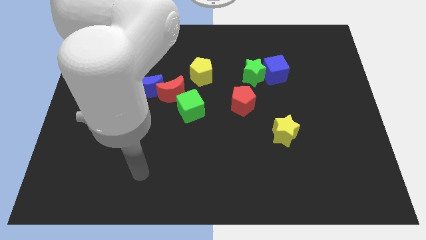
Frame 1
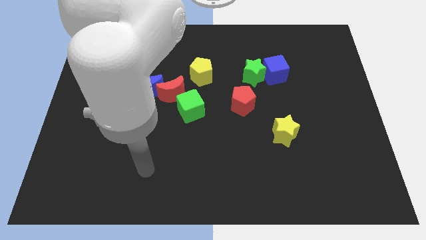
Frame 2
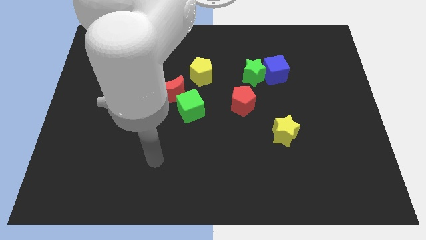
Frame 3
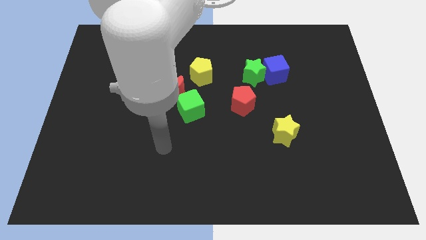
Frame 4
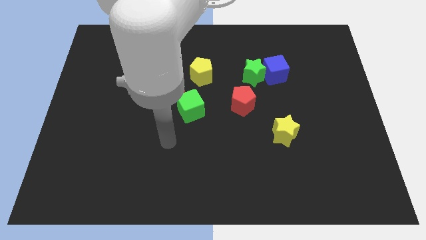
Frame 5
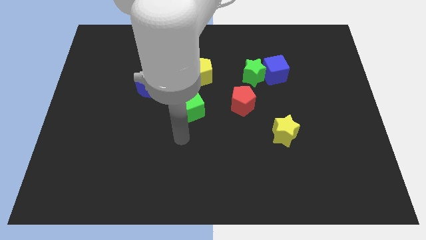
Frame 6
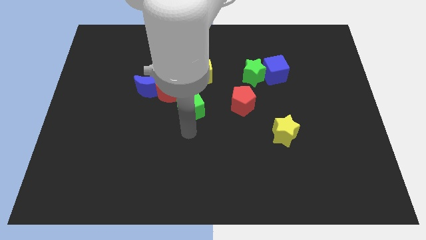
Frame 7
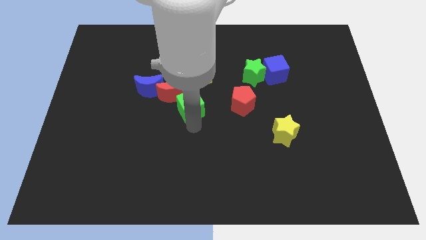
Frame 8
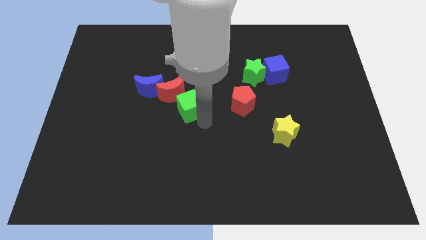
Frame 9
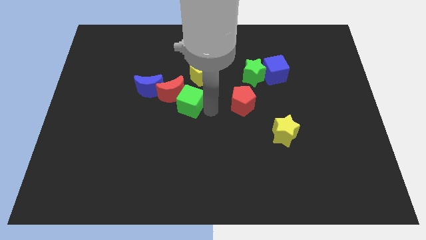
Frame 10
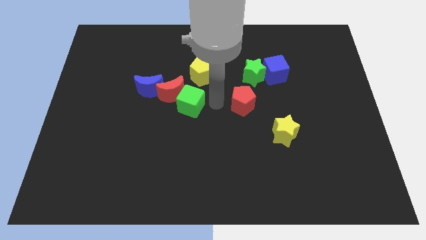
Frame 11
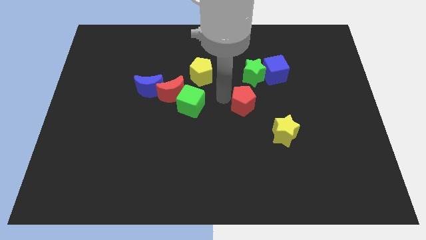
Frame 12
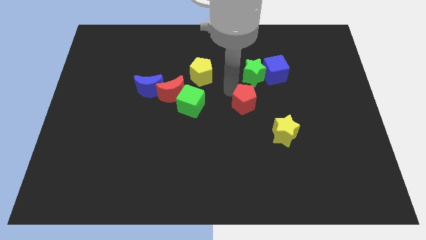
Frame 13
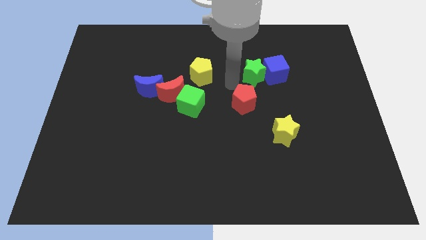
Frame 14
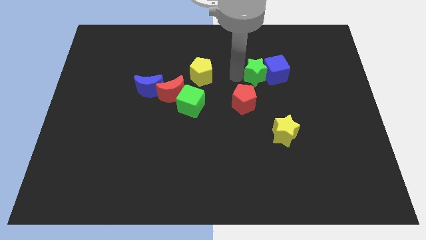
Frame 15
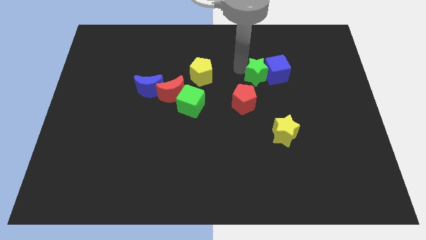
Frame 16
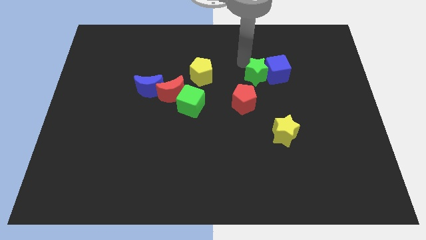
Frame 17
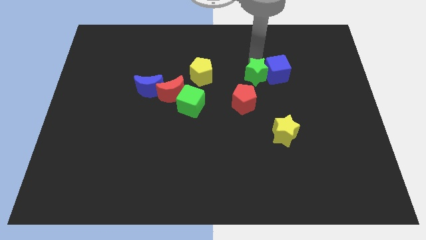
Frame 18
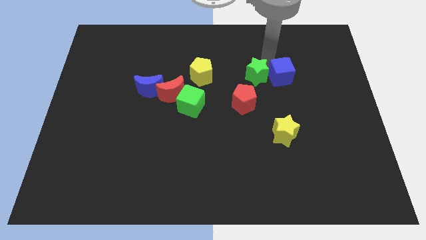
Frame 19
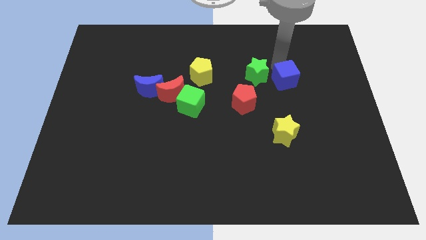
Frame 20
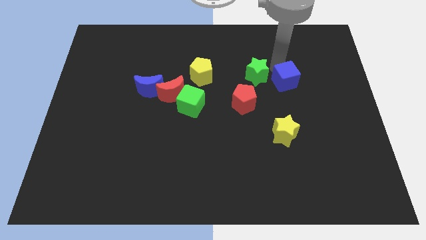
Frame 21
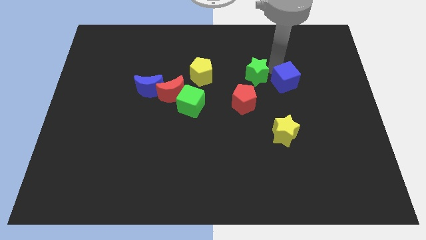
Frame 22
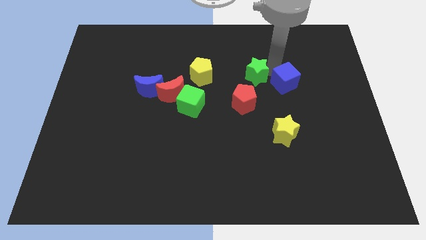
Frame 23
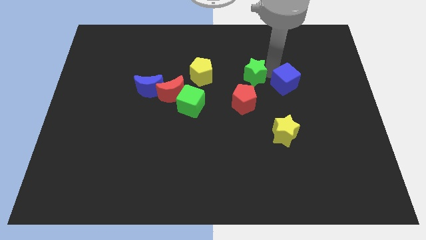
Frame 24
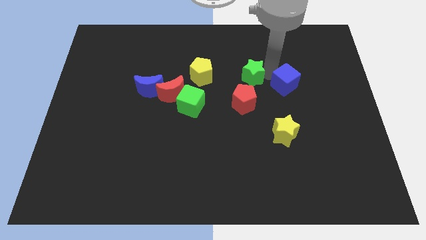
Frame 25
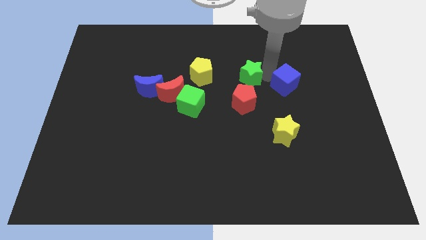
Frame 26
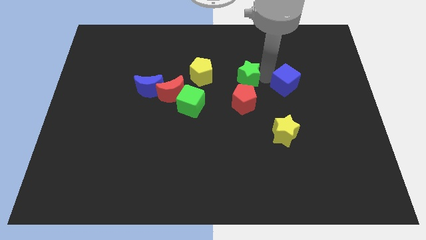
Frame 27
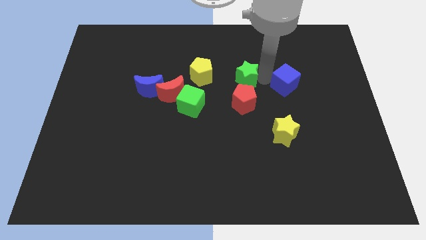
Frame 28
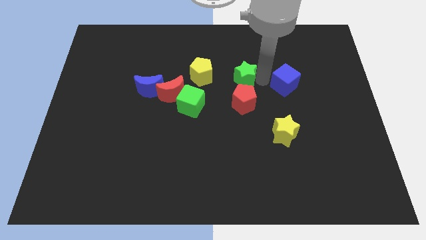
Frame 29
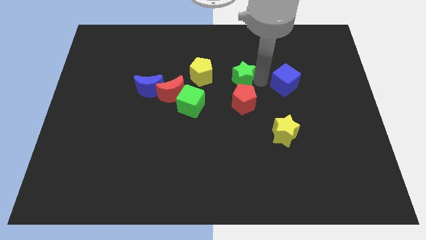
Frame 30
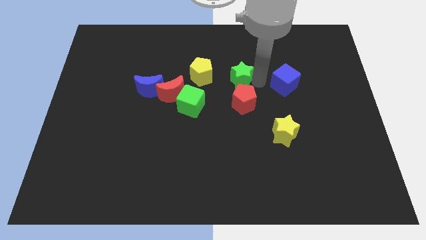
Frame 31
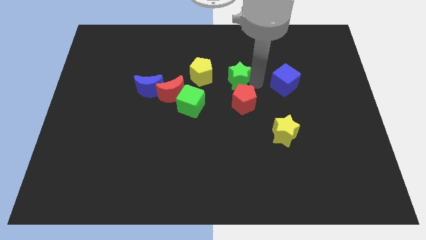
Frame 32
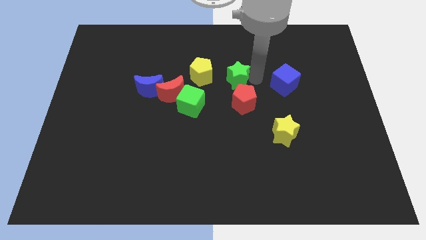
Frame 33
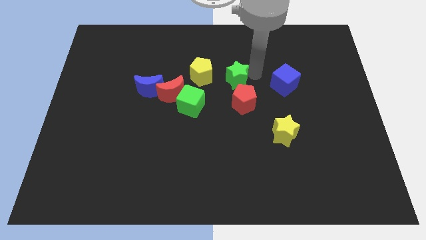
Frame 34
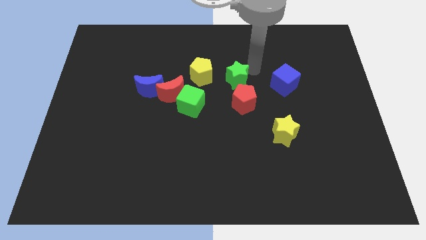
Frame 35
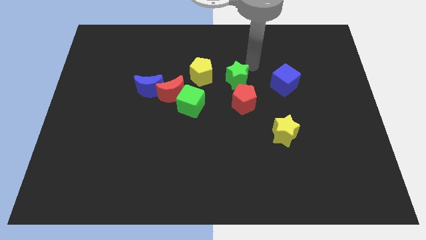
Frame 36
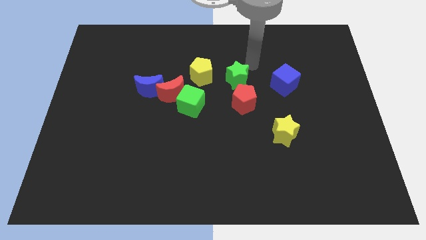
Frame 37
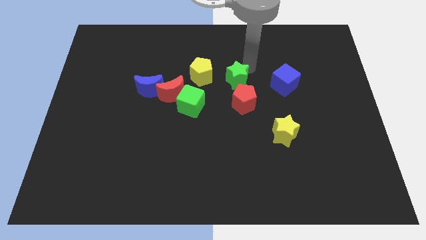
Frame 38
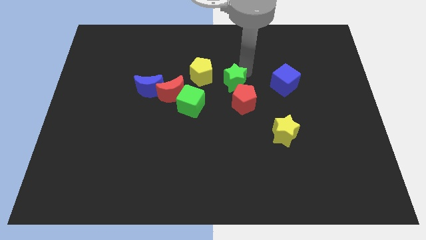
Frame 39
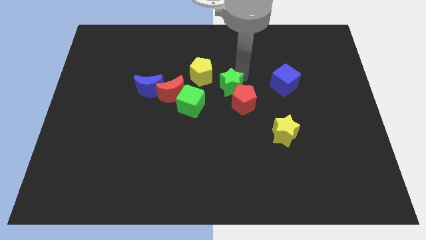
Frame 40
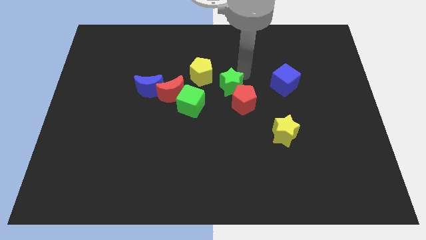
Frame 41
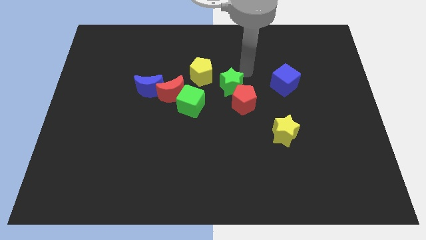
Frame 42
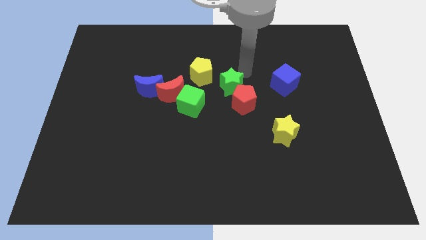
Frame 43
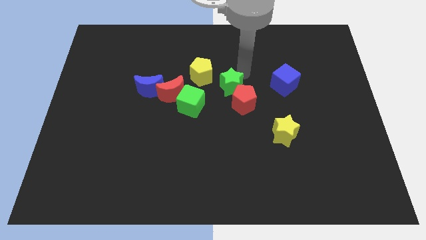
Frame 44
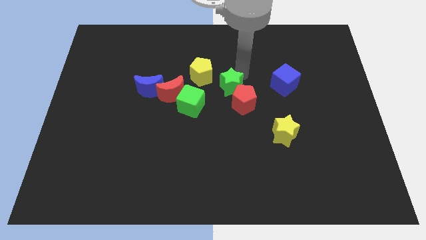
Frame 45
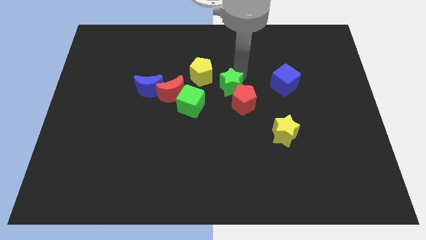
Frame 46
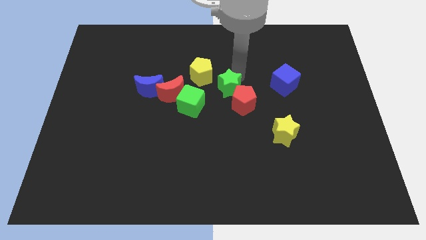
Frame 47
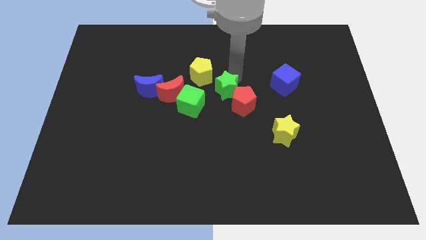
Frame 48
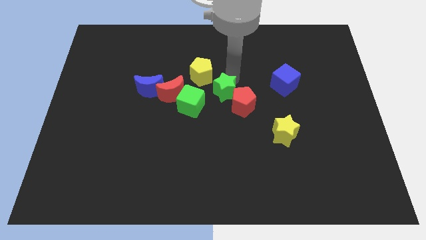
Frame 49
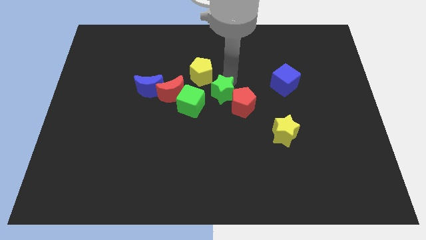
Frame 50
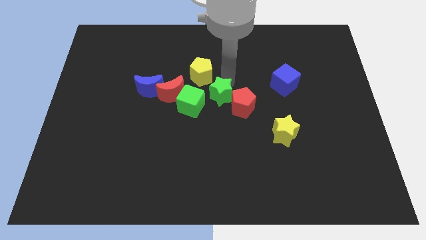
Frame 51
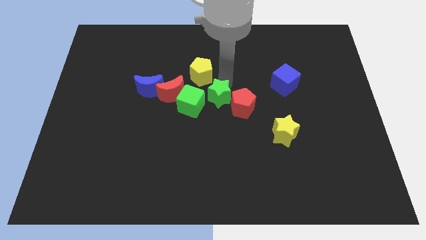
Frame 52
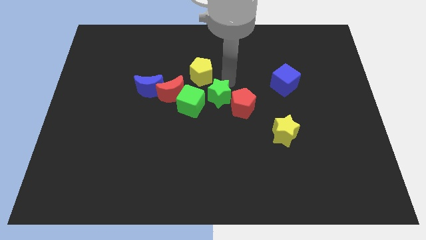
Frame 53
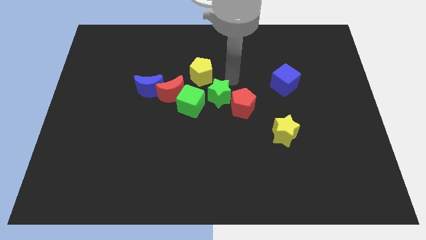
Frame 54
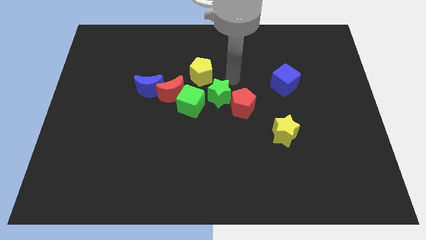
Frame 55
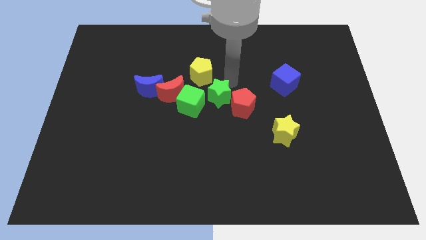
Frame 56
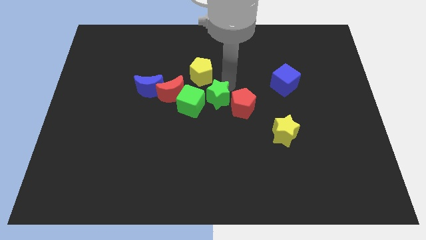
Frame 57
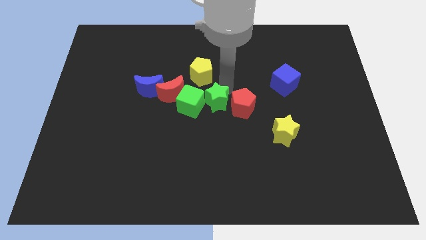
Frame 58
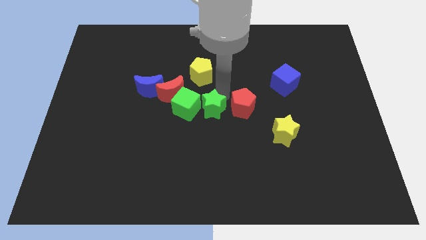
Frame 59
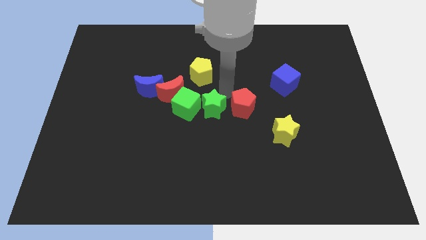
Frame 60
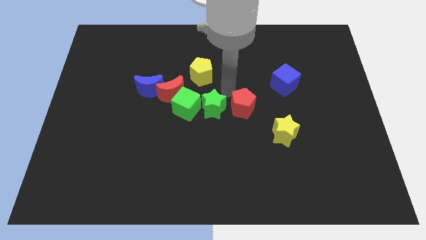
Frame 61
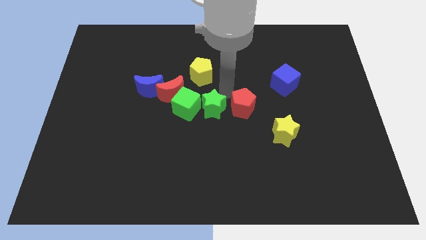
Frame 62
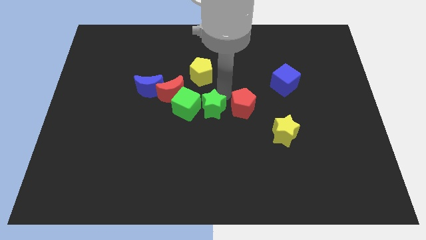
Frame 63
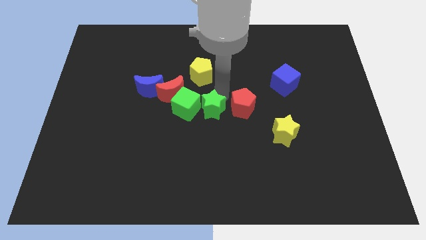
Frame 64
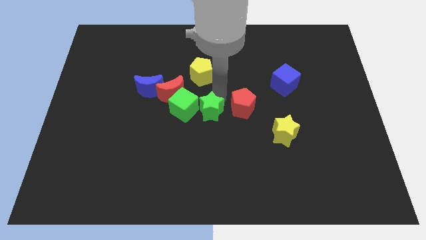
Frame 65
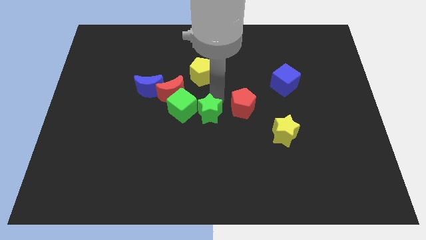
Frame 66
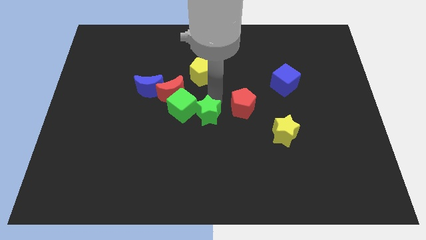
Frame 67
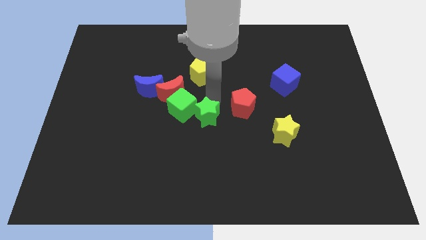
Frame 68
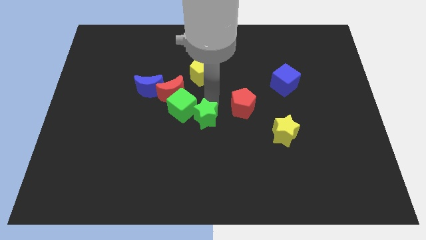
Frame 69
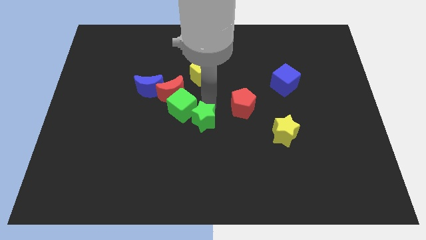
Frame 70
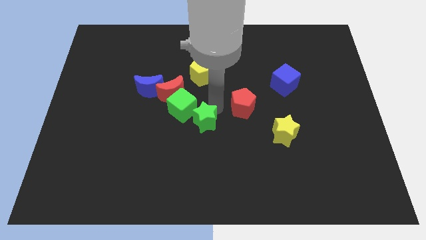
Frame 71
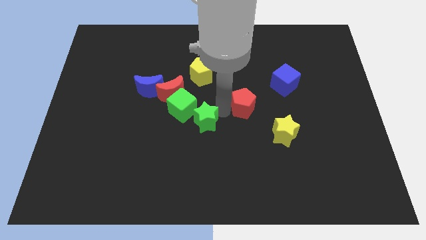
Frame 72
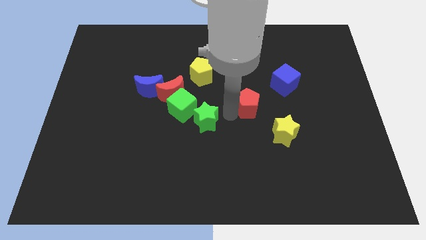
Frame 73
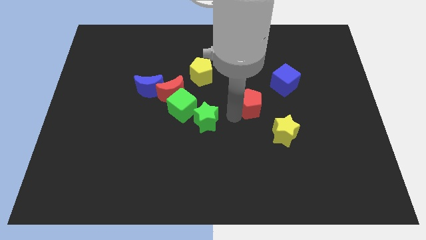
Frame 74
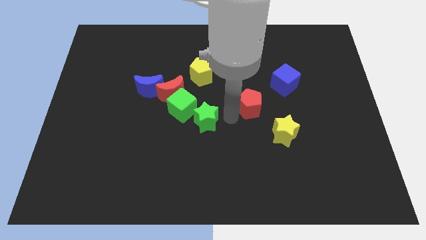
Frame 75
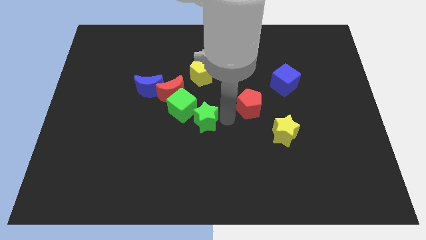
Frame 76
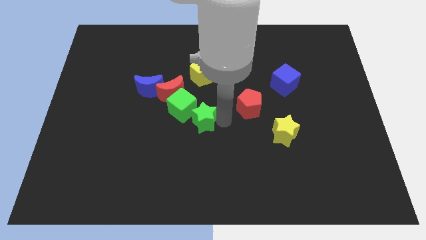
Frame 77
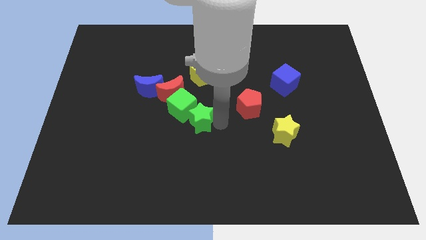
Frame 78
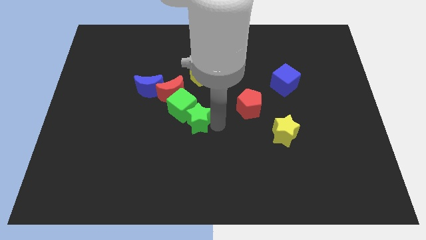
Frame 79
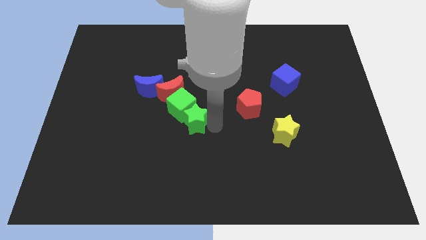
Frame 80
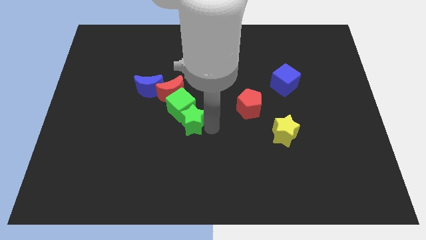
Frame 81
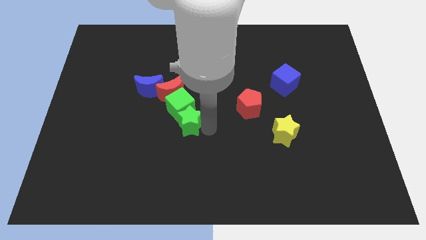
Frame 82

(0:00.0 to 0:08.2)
put the green star to the bottom side of the red moon
